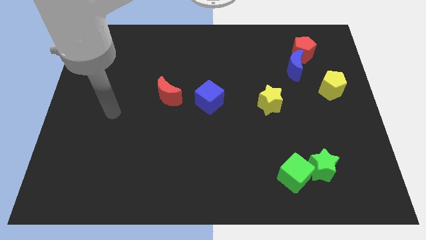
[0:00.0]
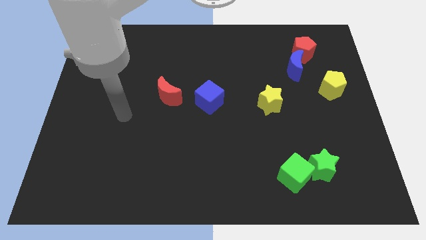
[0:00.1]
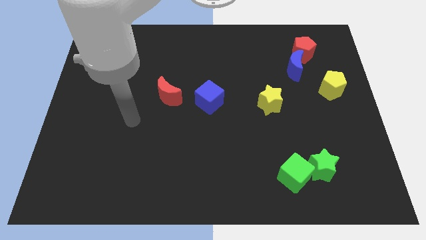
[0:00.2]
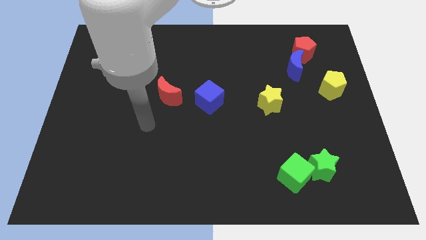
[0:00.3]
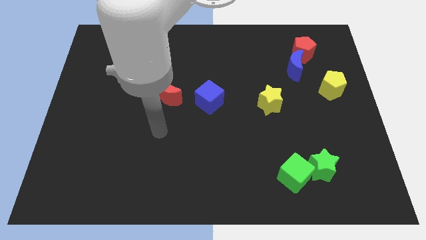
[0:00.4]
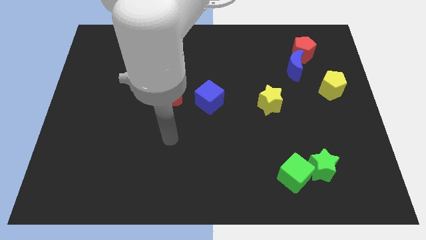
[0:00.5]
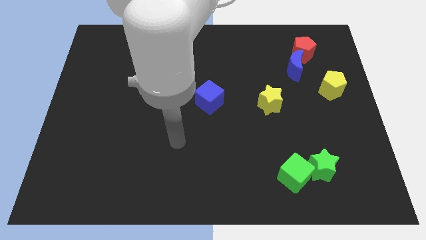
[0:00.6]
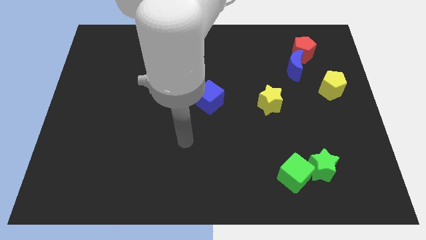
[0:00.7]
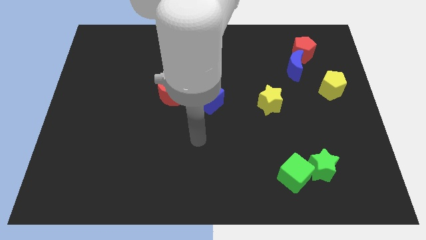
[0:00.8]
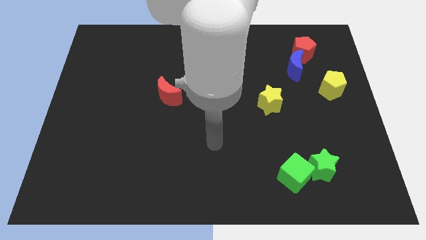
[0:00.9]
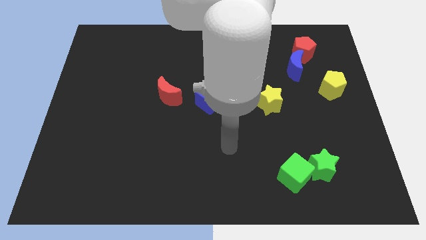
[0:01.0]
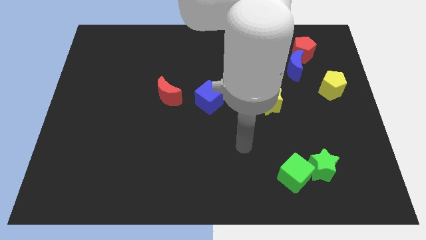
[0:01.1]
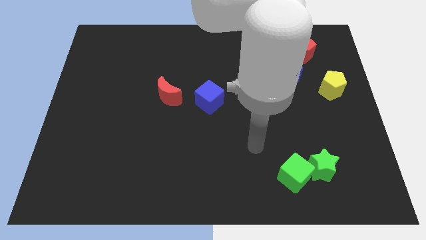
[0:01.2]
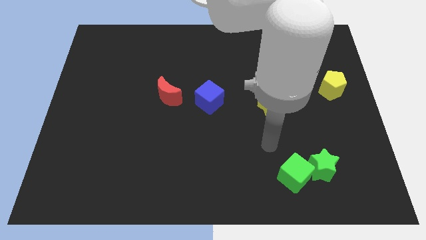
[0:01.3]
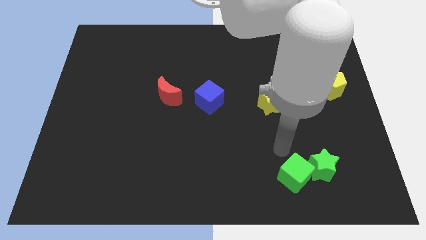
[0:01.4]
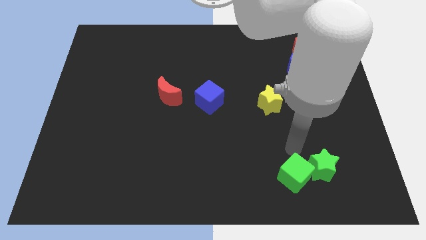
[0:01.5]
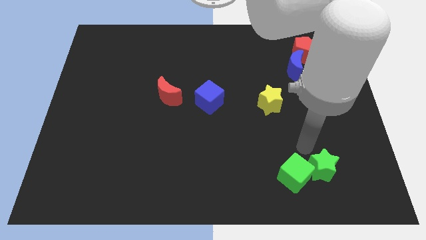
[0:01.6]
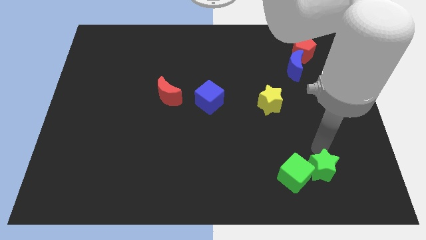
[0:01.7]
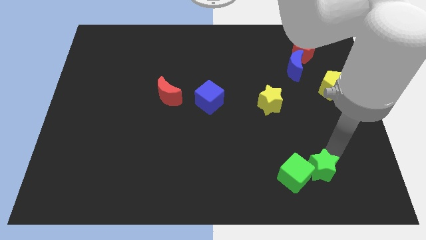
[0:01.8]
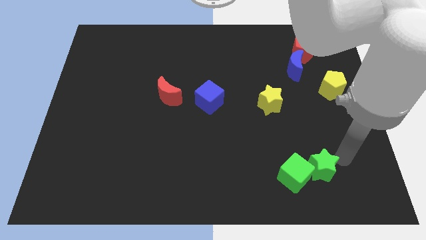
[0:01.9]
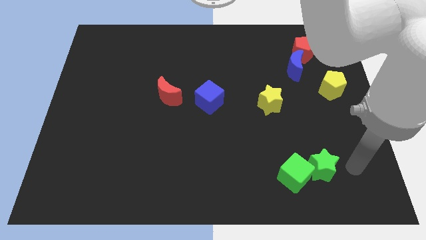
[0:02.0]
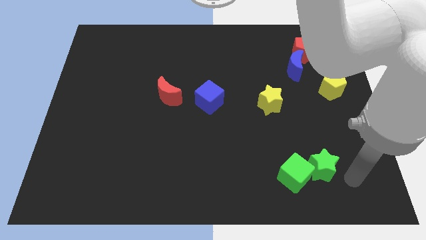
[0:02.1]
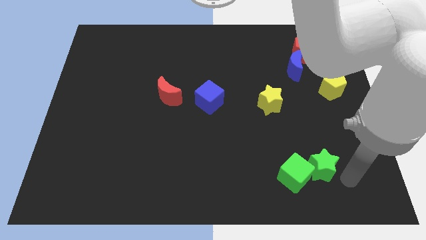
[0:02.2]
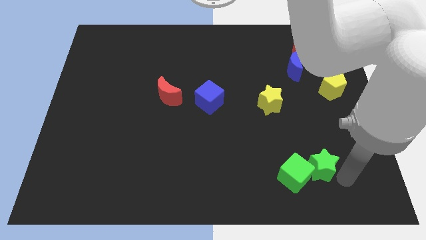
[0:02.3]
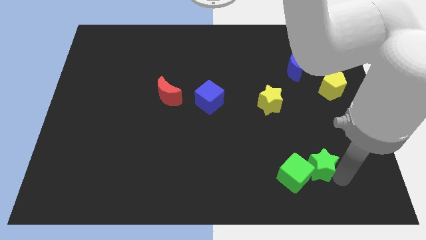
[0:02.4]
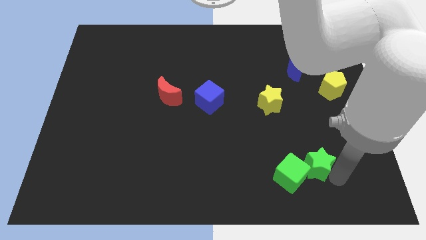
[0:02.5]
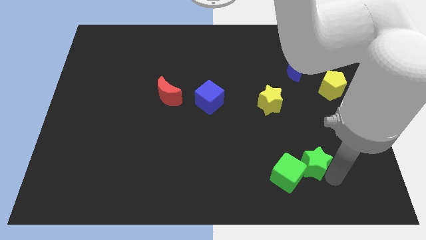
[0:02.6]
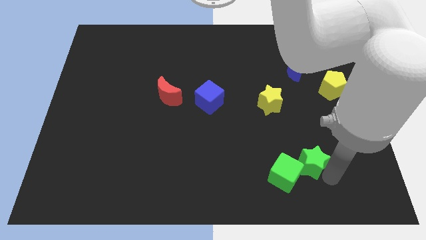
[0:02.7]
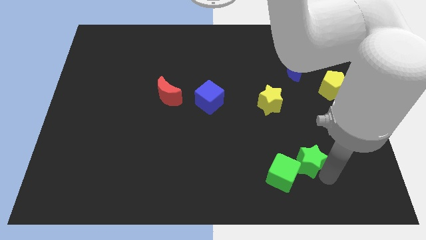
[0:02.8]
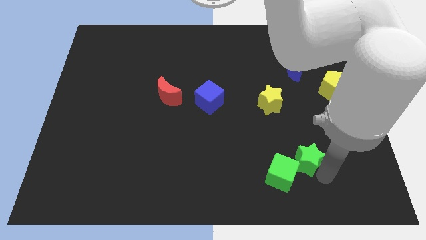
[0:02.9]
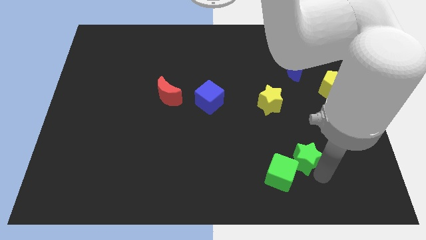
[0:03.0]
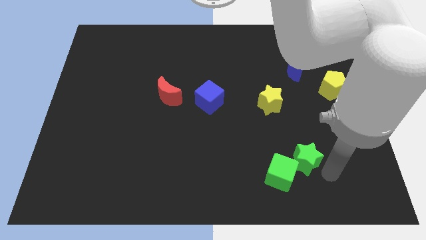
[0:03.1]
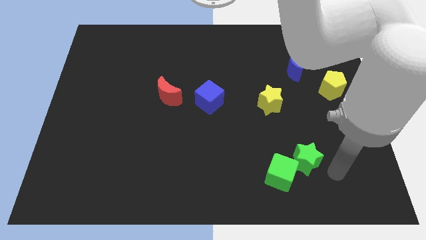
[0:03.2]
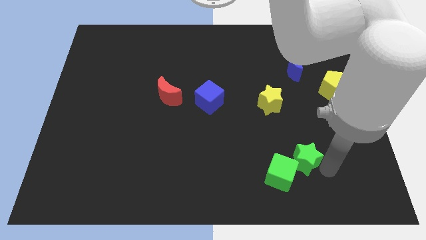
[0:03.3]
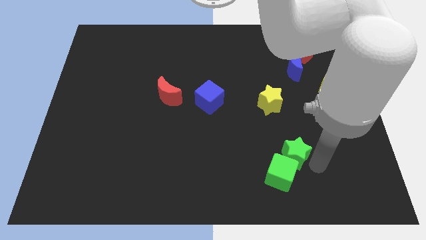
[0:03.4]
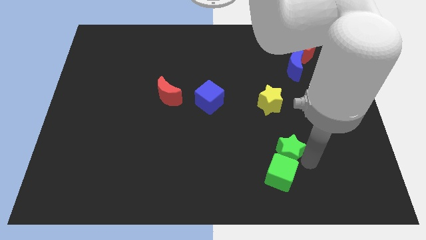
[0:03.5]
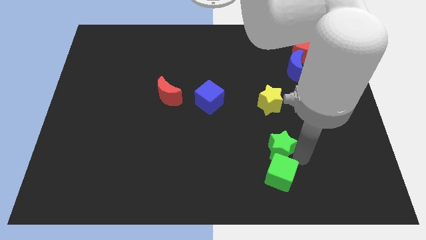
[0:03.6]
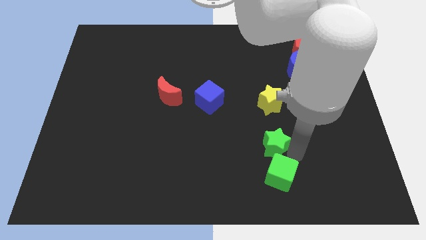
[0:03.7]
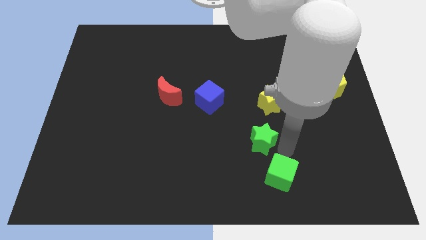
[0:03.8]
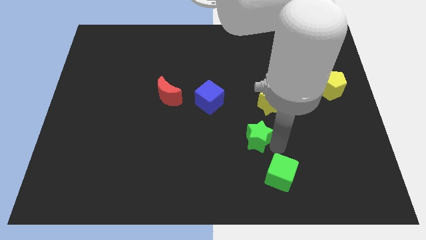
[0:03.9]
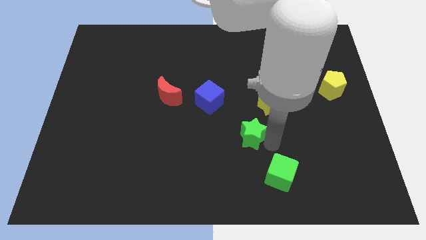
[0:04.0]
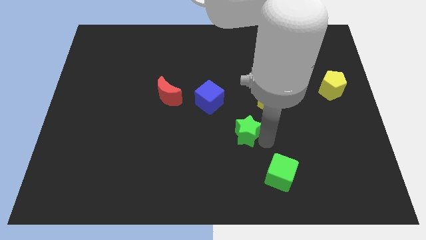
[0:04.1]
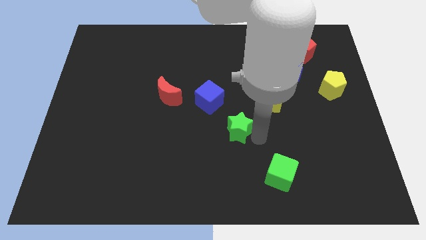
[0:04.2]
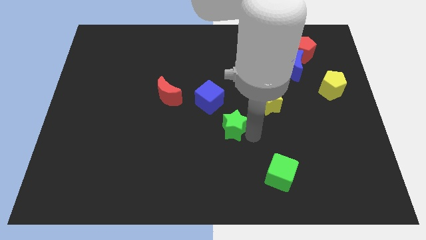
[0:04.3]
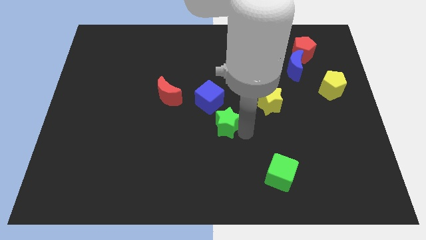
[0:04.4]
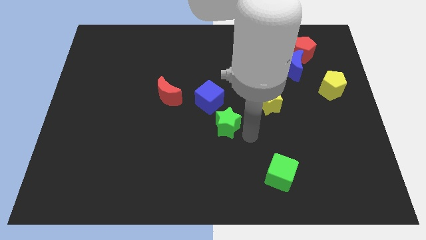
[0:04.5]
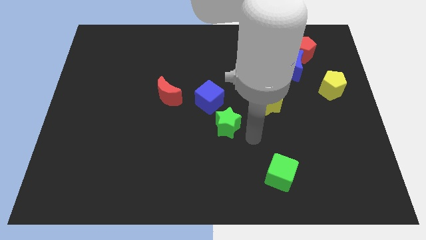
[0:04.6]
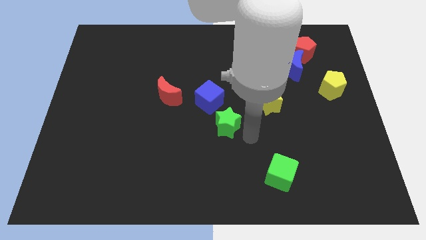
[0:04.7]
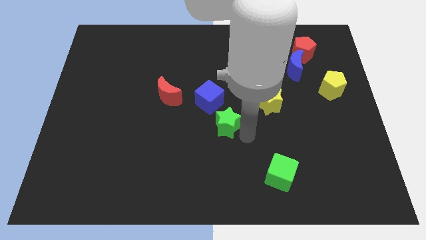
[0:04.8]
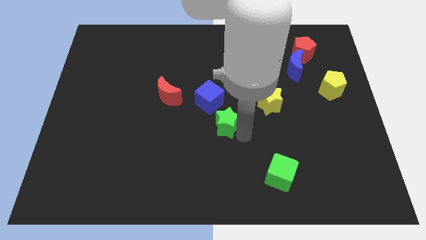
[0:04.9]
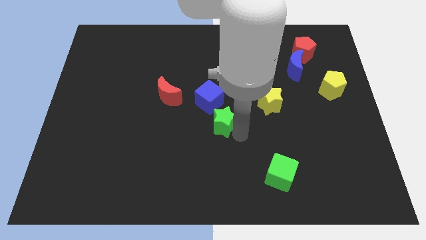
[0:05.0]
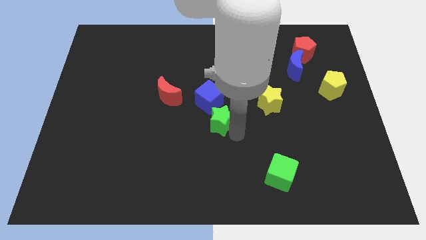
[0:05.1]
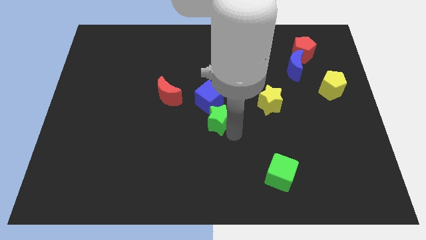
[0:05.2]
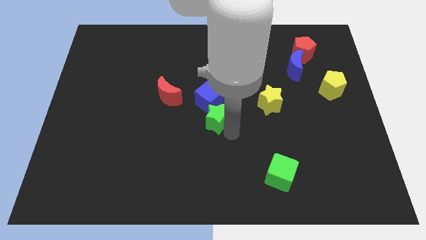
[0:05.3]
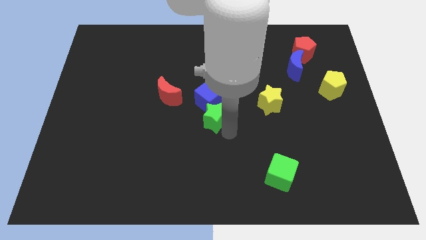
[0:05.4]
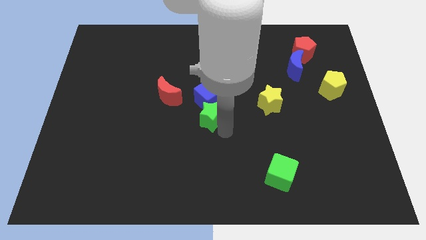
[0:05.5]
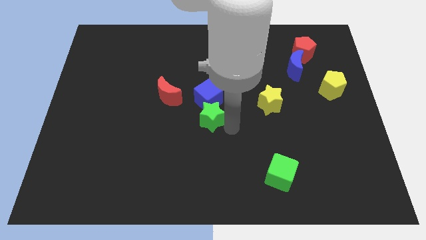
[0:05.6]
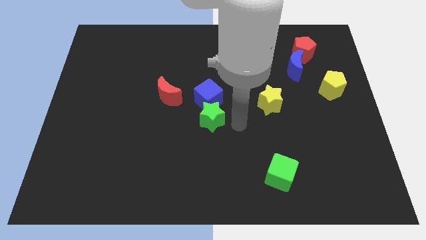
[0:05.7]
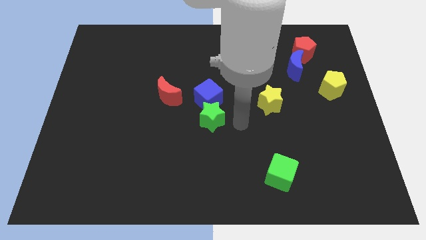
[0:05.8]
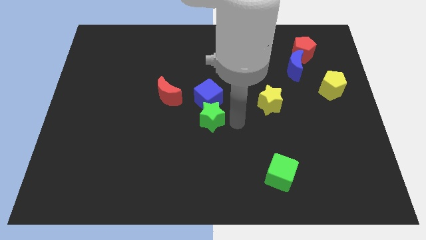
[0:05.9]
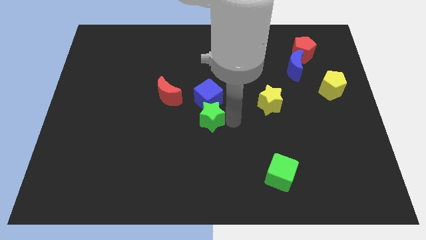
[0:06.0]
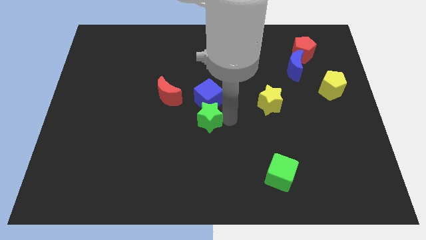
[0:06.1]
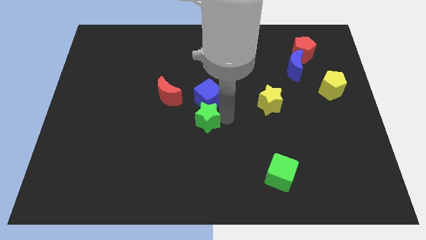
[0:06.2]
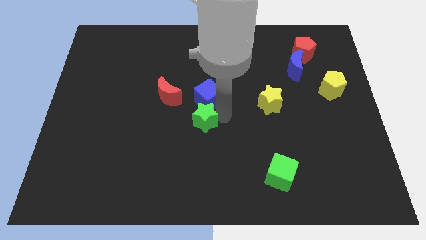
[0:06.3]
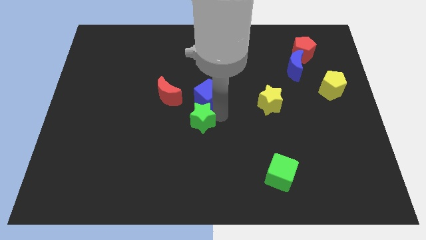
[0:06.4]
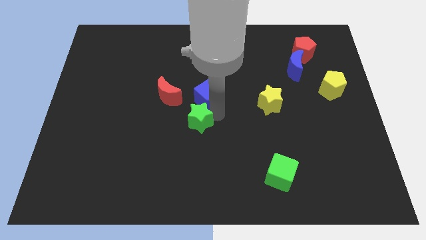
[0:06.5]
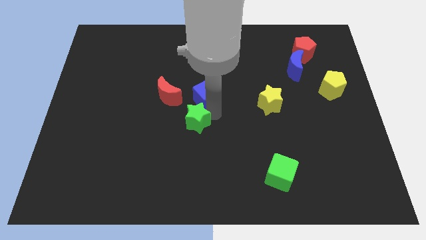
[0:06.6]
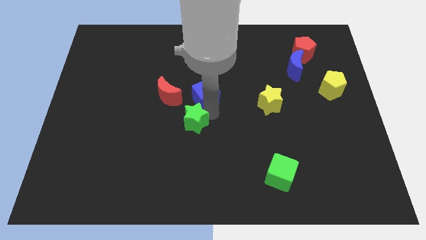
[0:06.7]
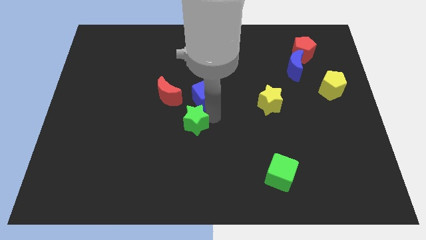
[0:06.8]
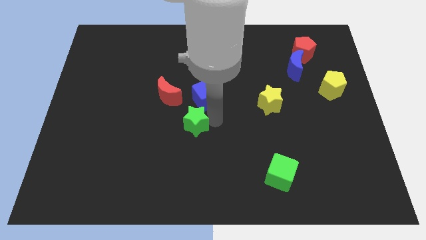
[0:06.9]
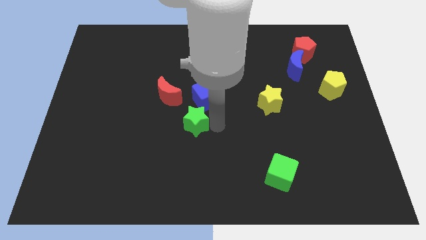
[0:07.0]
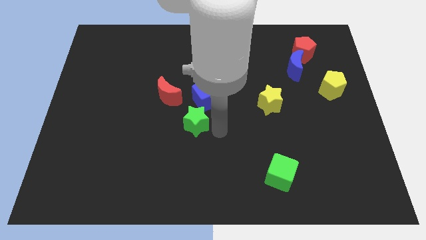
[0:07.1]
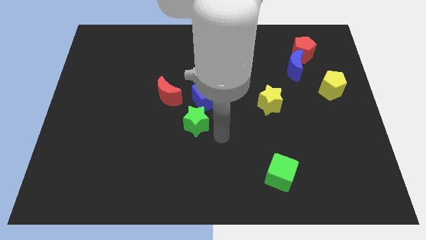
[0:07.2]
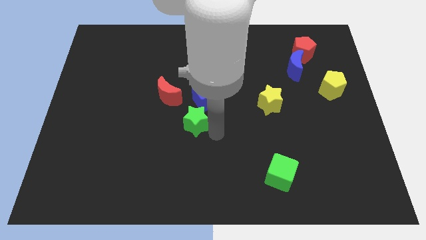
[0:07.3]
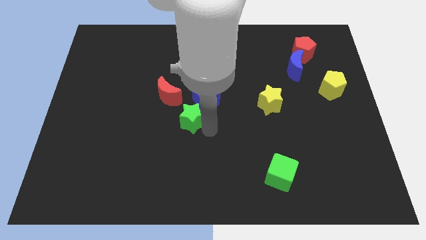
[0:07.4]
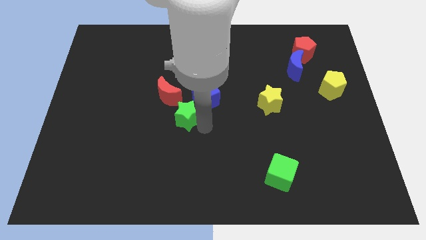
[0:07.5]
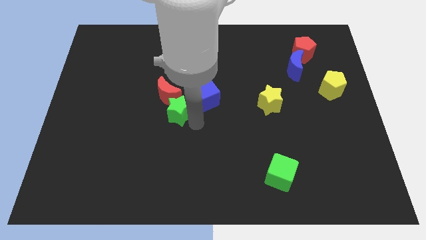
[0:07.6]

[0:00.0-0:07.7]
slide the green star close to the red moon
